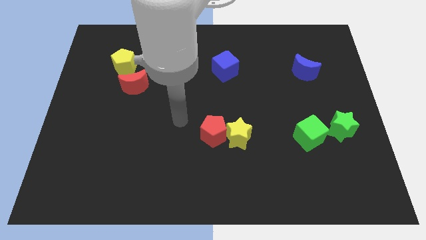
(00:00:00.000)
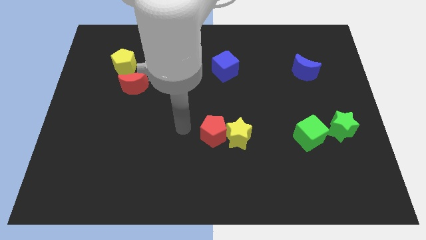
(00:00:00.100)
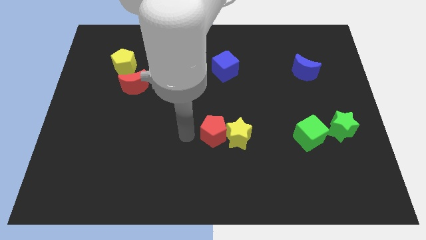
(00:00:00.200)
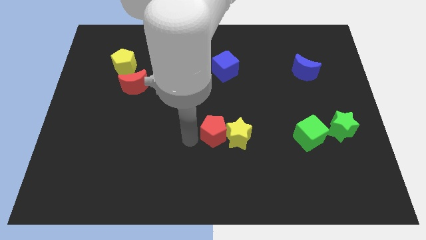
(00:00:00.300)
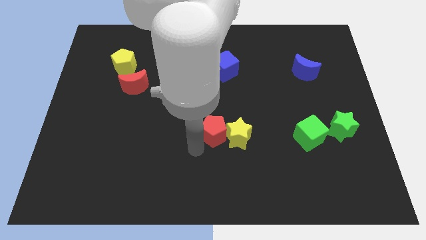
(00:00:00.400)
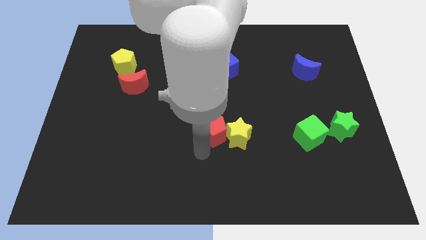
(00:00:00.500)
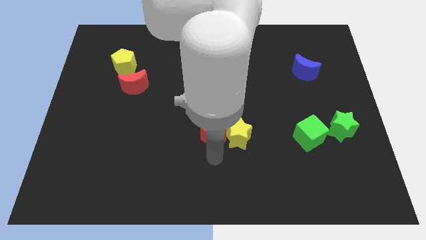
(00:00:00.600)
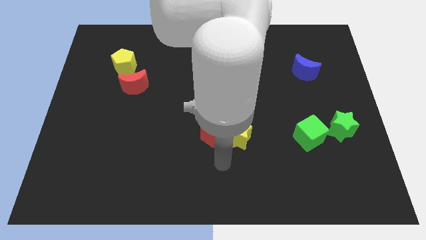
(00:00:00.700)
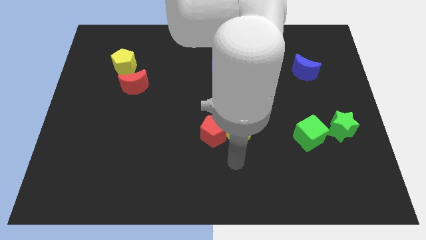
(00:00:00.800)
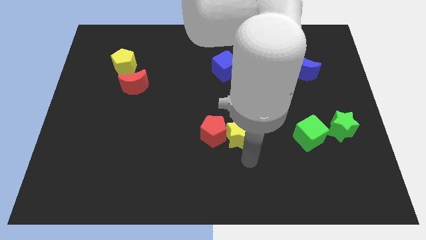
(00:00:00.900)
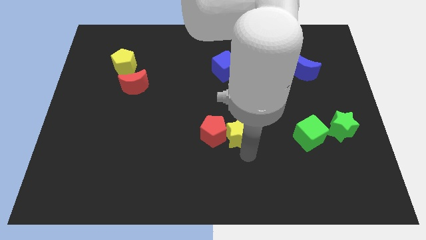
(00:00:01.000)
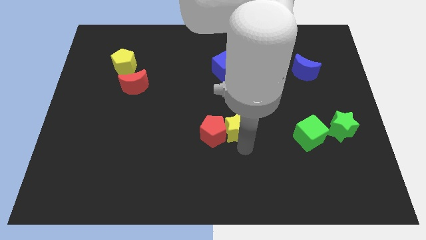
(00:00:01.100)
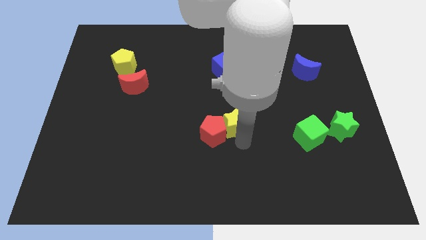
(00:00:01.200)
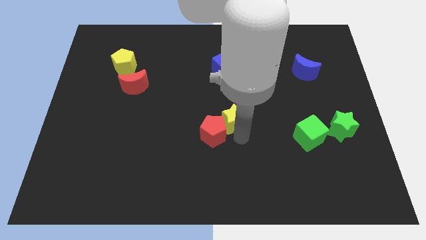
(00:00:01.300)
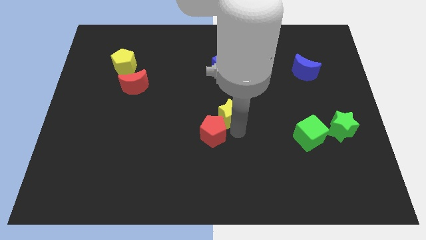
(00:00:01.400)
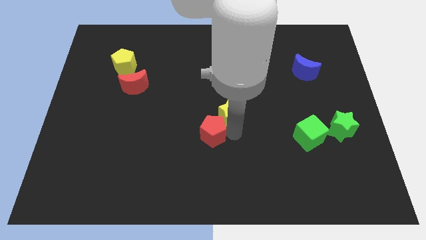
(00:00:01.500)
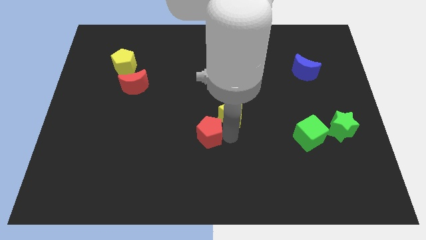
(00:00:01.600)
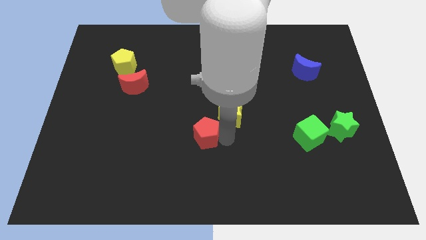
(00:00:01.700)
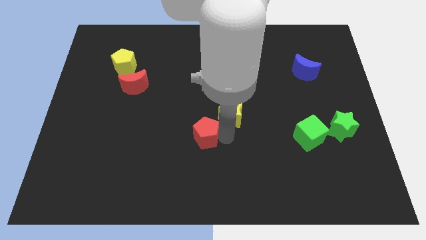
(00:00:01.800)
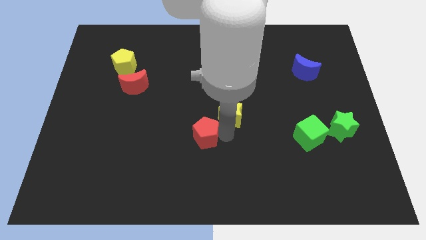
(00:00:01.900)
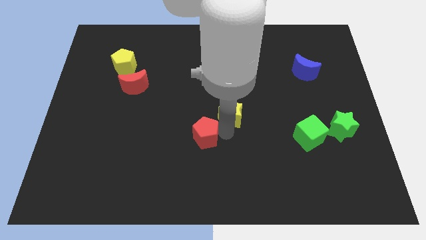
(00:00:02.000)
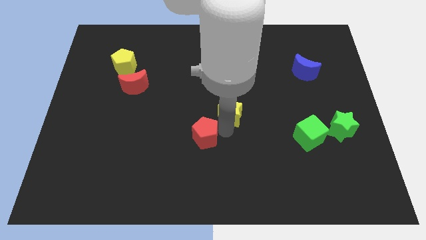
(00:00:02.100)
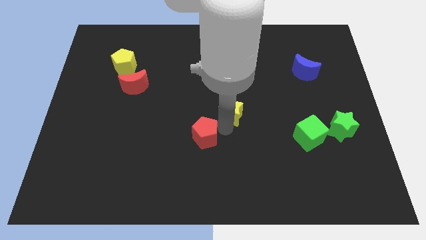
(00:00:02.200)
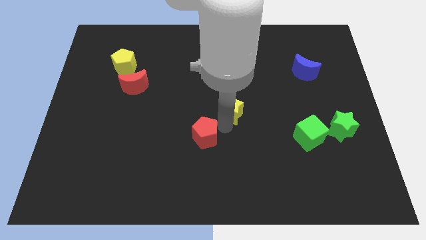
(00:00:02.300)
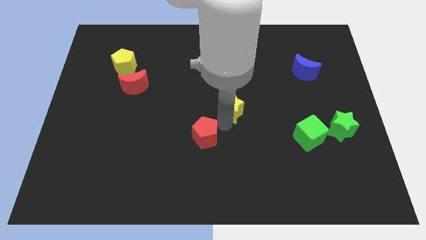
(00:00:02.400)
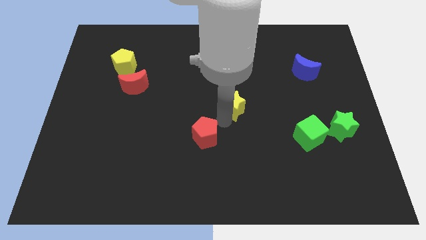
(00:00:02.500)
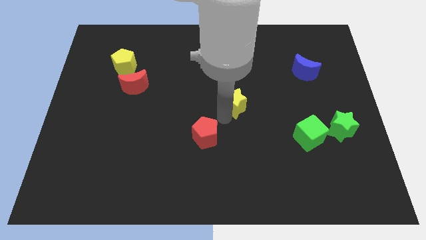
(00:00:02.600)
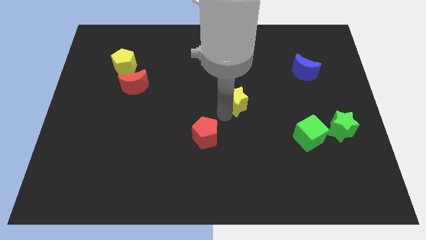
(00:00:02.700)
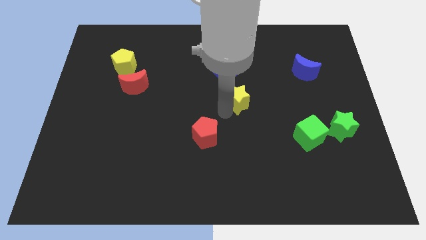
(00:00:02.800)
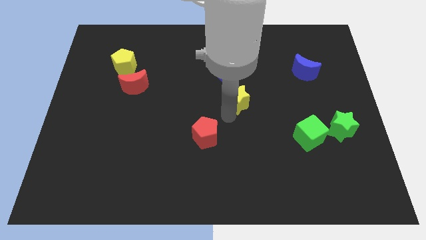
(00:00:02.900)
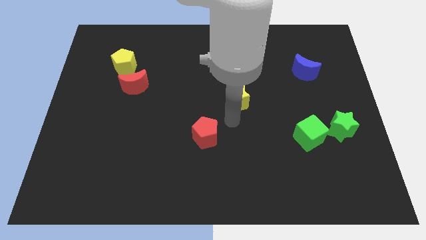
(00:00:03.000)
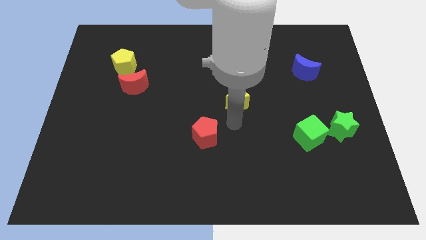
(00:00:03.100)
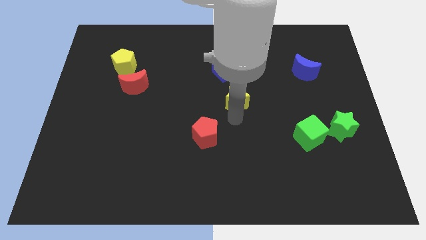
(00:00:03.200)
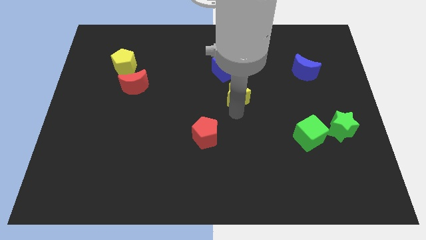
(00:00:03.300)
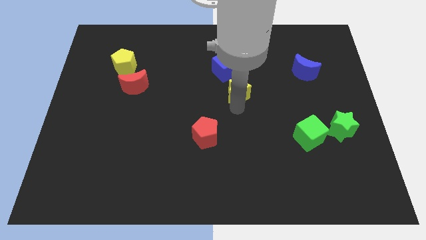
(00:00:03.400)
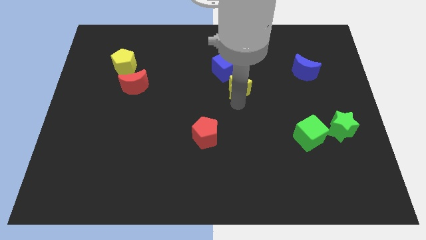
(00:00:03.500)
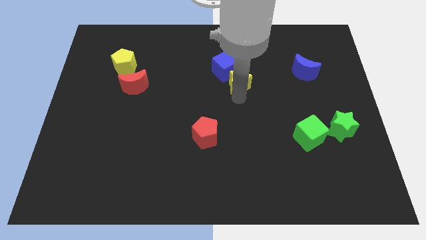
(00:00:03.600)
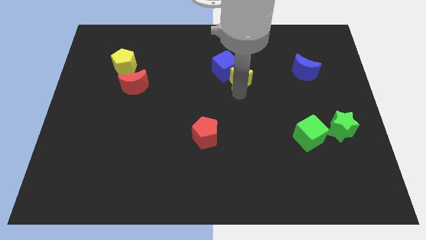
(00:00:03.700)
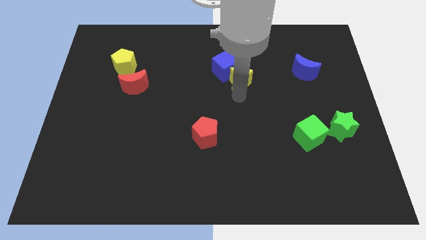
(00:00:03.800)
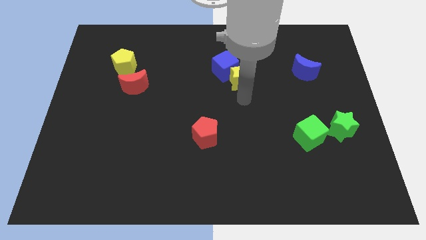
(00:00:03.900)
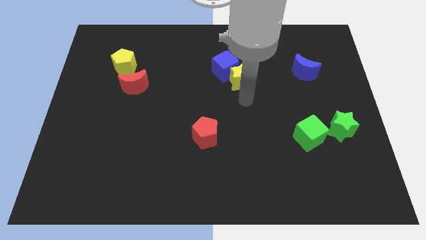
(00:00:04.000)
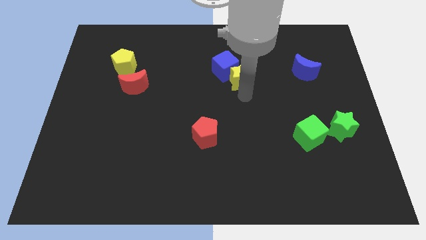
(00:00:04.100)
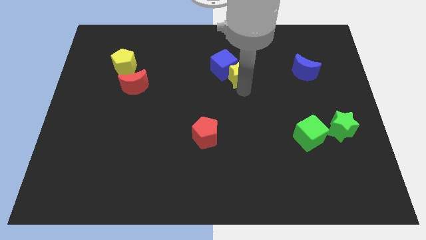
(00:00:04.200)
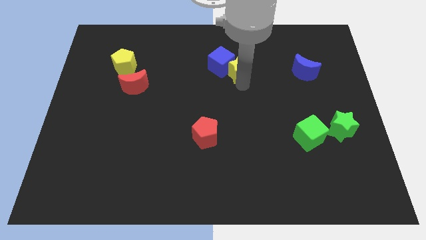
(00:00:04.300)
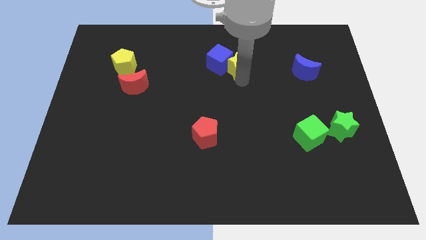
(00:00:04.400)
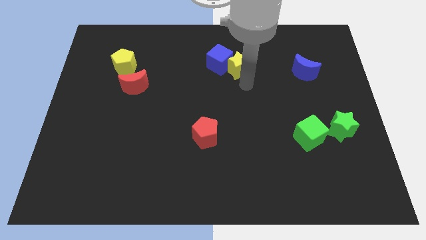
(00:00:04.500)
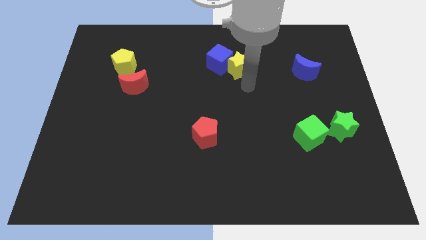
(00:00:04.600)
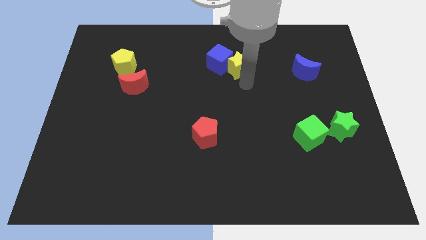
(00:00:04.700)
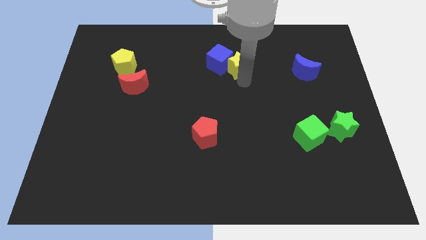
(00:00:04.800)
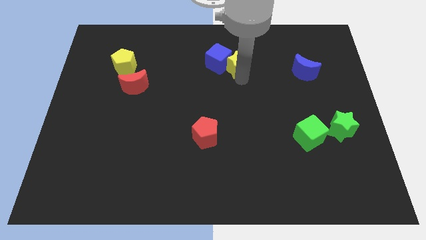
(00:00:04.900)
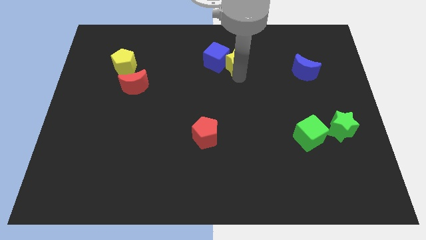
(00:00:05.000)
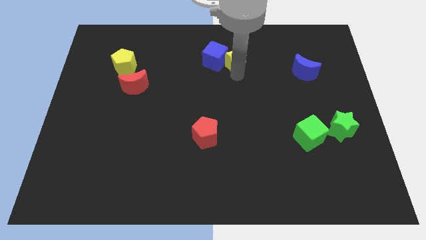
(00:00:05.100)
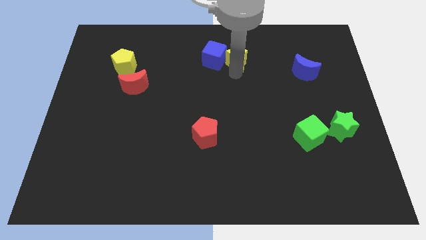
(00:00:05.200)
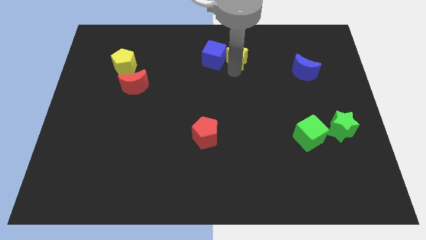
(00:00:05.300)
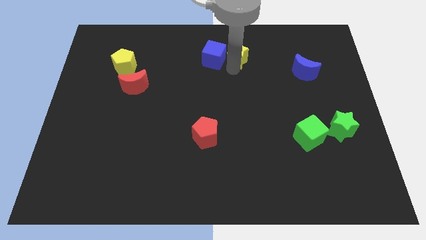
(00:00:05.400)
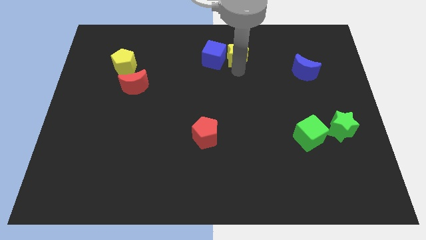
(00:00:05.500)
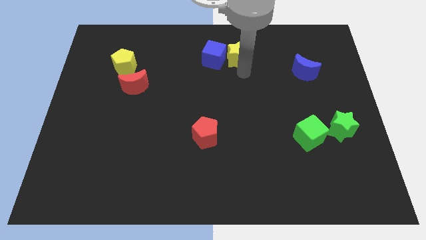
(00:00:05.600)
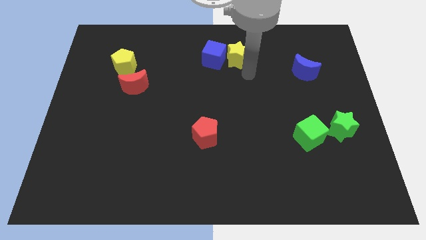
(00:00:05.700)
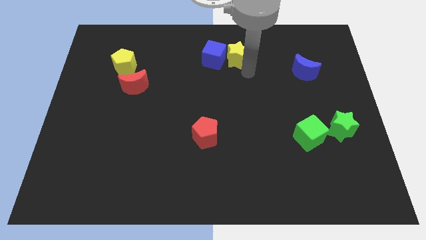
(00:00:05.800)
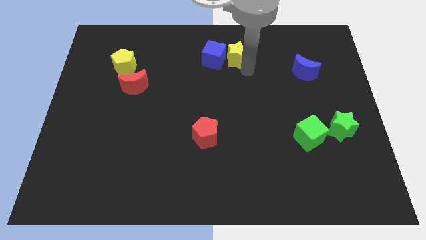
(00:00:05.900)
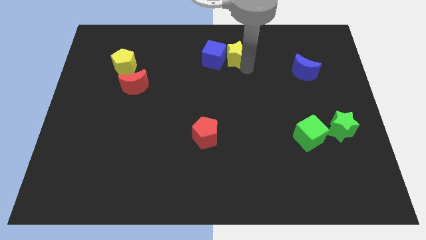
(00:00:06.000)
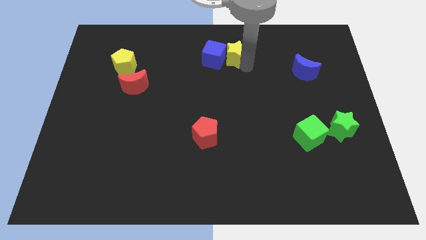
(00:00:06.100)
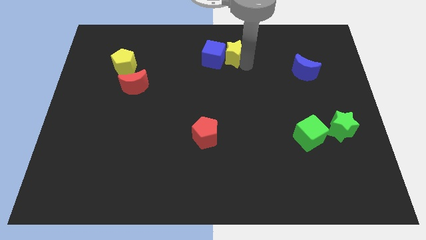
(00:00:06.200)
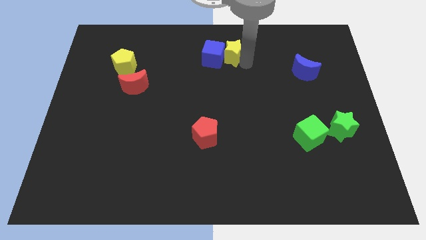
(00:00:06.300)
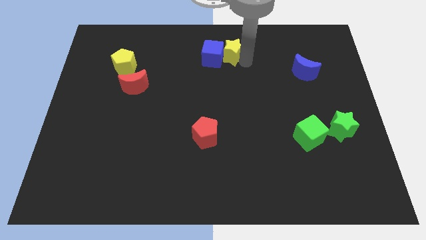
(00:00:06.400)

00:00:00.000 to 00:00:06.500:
slide the yellow star to the towards your base
